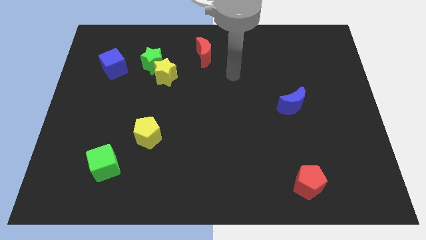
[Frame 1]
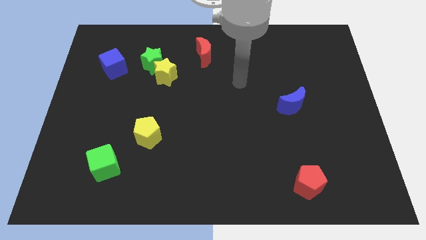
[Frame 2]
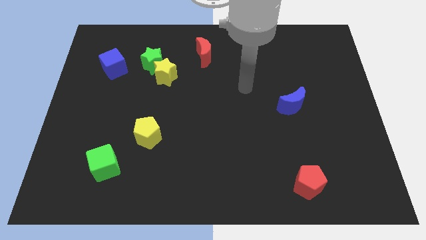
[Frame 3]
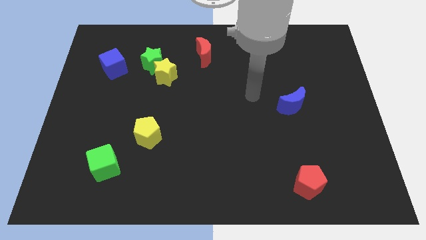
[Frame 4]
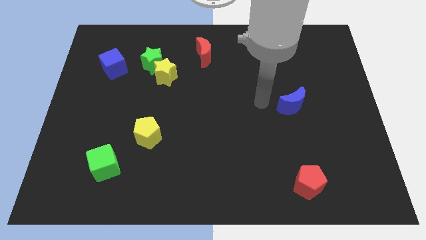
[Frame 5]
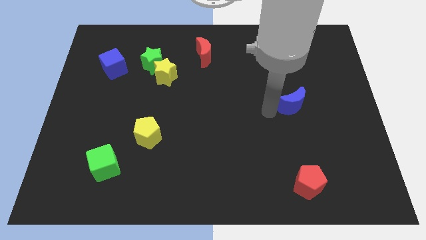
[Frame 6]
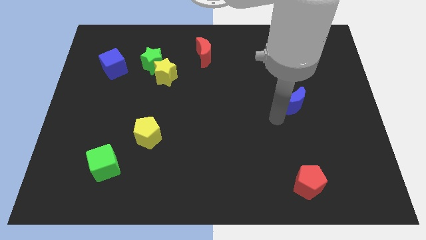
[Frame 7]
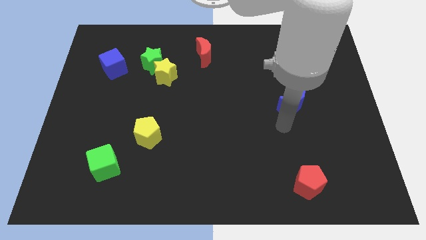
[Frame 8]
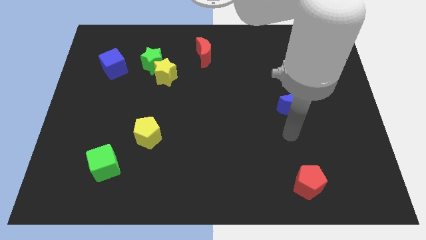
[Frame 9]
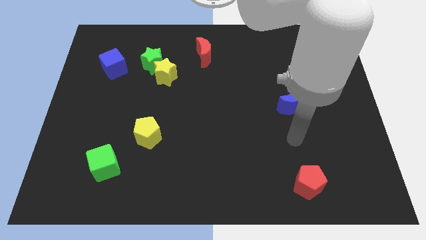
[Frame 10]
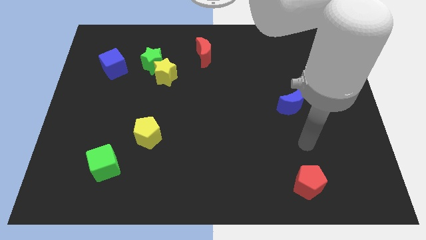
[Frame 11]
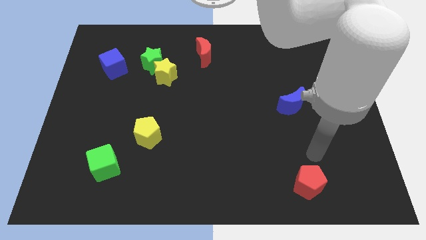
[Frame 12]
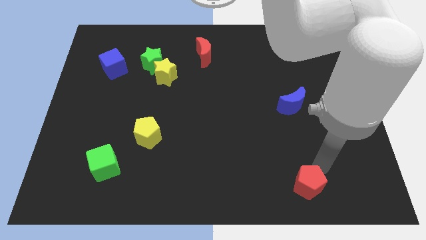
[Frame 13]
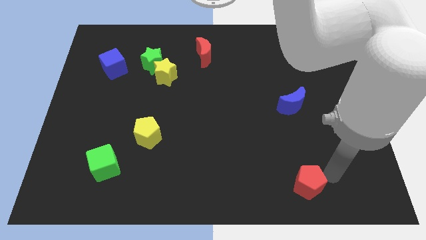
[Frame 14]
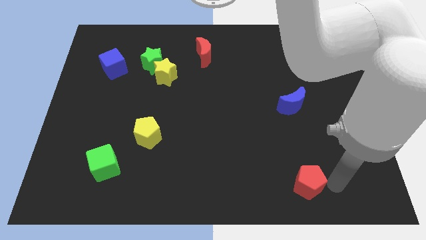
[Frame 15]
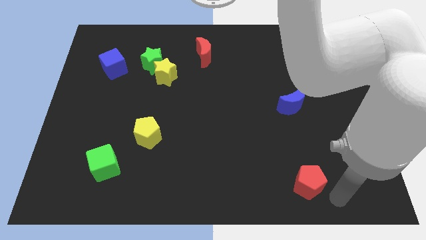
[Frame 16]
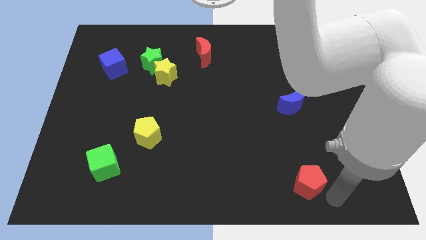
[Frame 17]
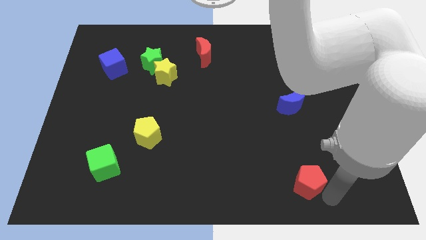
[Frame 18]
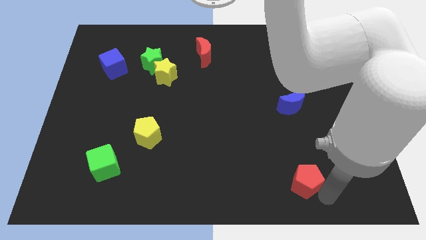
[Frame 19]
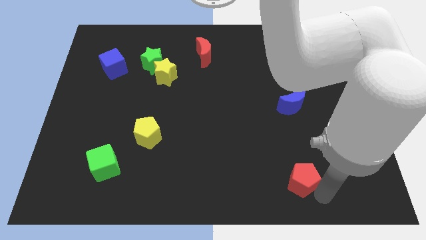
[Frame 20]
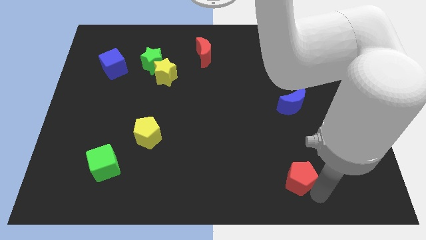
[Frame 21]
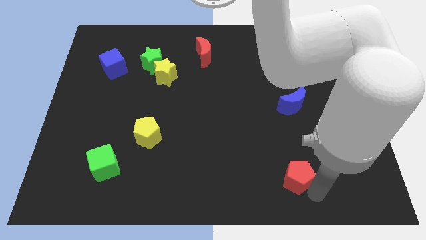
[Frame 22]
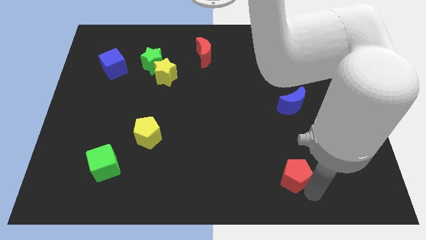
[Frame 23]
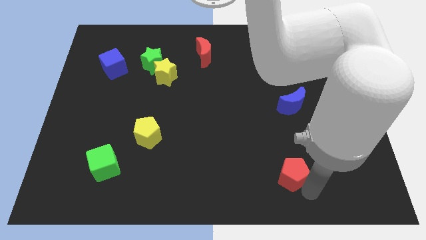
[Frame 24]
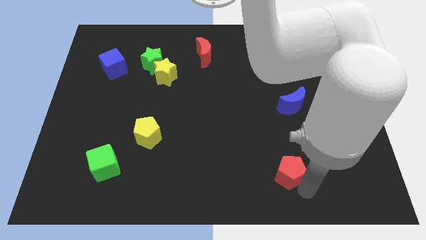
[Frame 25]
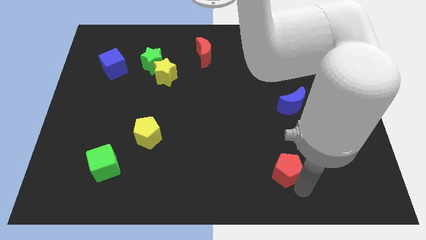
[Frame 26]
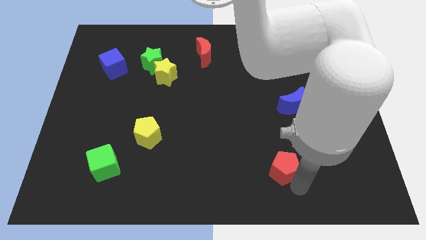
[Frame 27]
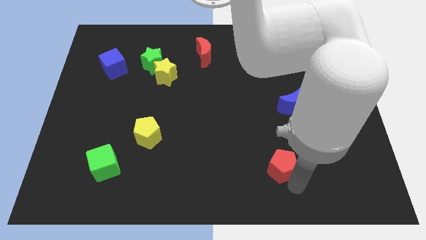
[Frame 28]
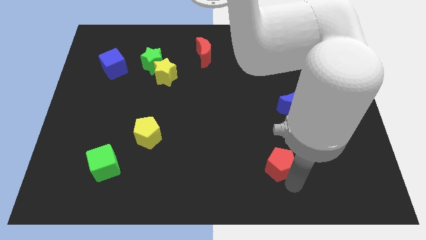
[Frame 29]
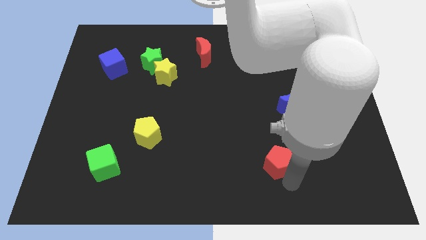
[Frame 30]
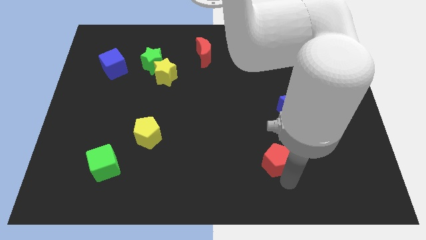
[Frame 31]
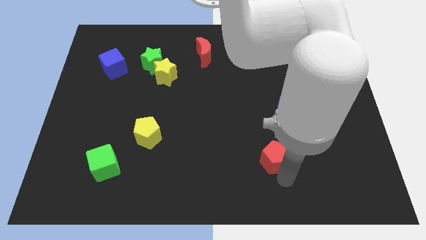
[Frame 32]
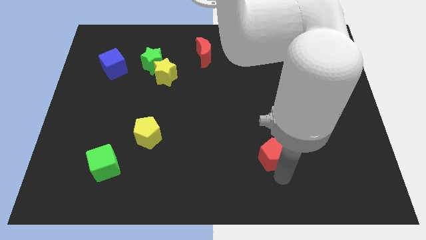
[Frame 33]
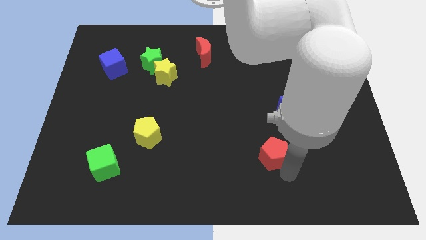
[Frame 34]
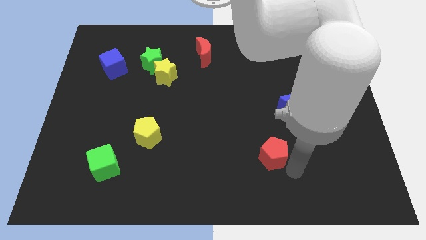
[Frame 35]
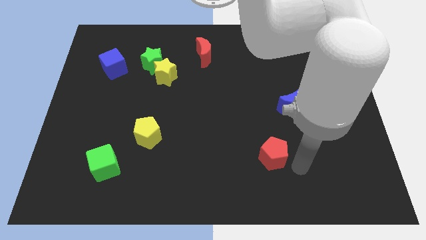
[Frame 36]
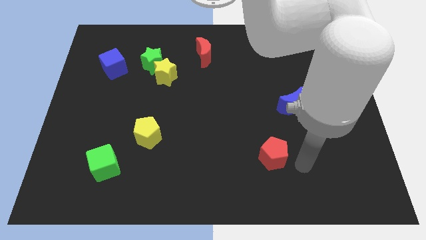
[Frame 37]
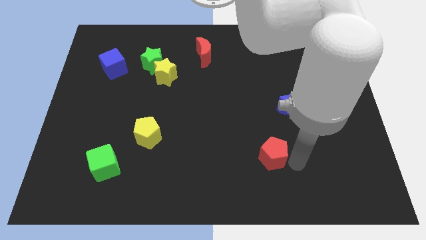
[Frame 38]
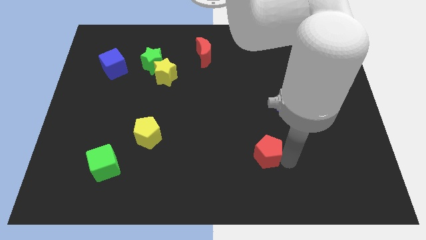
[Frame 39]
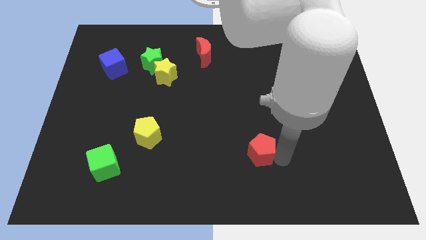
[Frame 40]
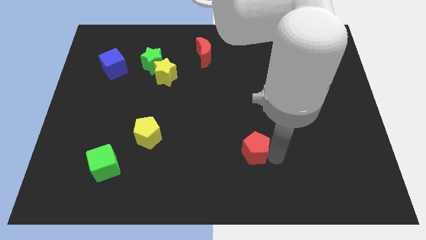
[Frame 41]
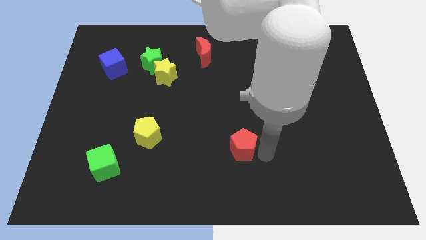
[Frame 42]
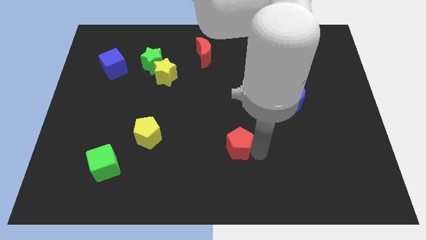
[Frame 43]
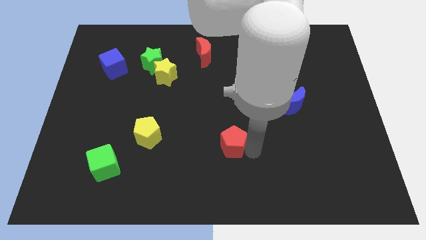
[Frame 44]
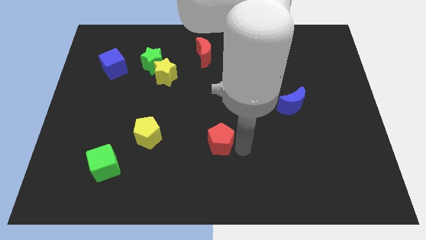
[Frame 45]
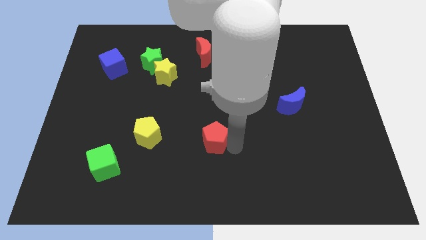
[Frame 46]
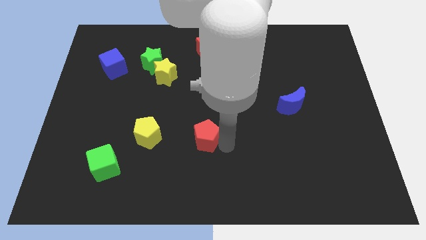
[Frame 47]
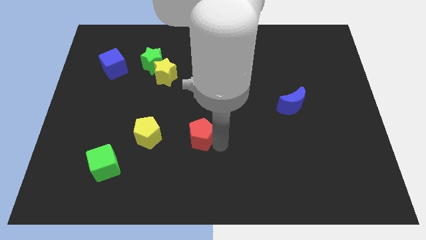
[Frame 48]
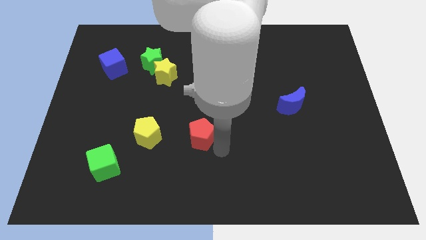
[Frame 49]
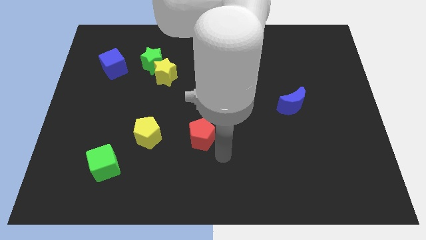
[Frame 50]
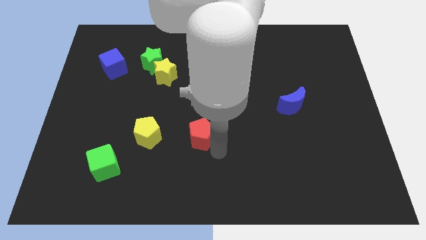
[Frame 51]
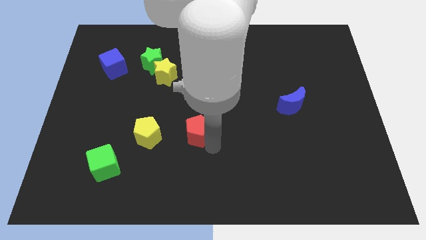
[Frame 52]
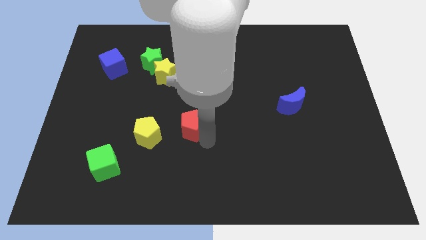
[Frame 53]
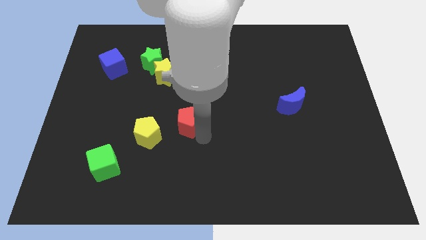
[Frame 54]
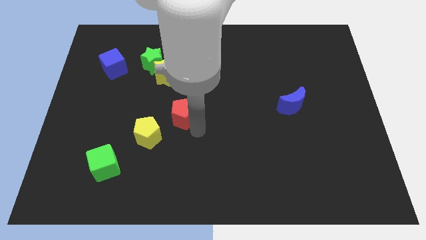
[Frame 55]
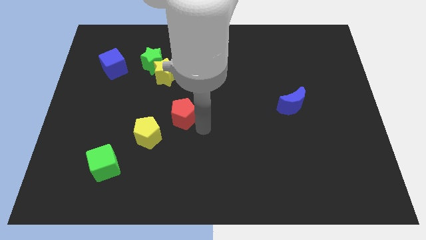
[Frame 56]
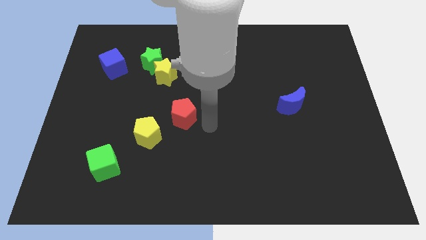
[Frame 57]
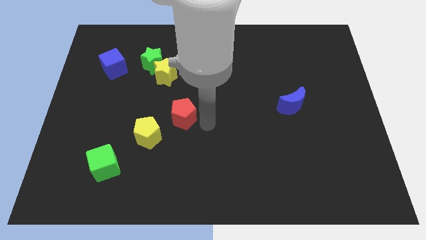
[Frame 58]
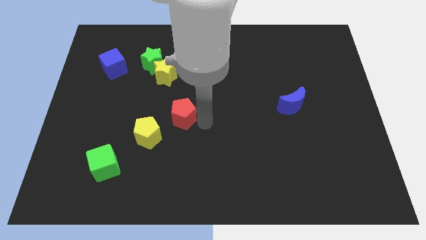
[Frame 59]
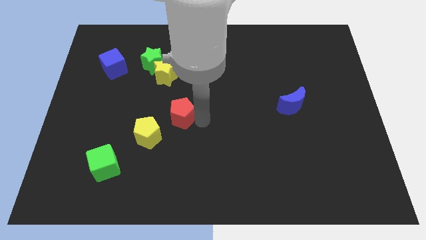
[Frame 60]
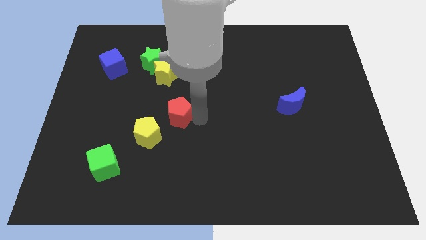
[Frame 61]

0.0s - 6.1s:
slide the red pentagon to the bottom side of the yellow star
